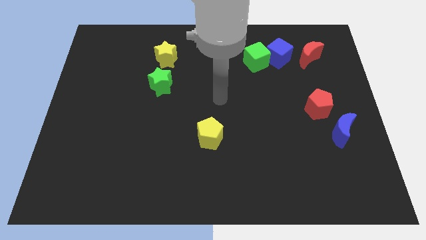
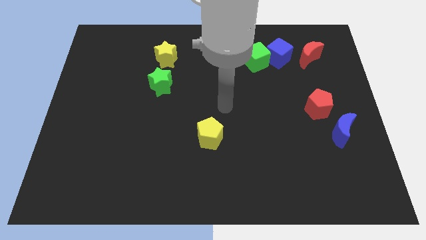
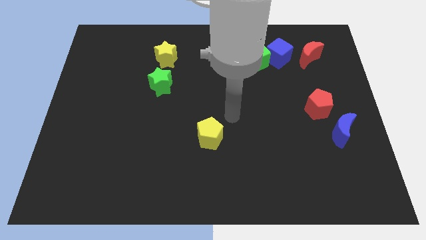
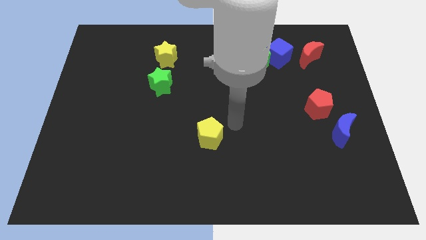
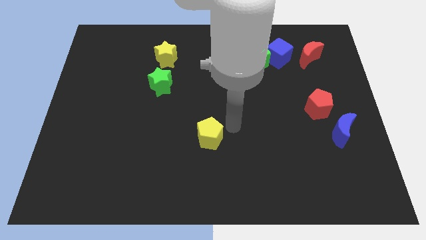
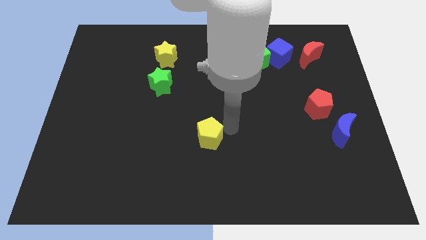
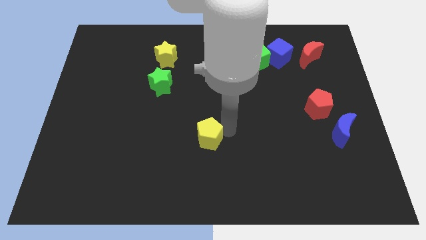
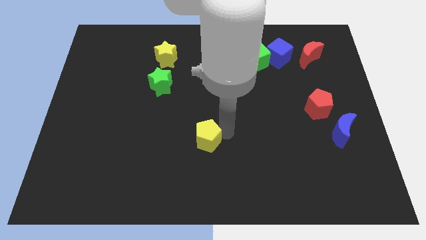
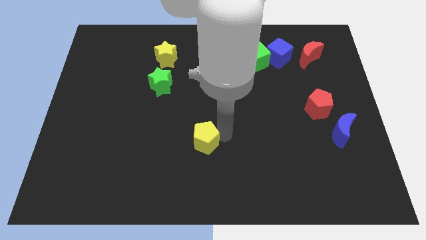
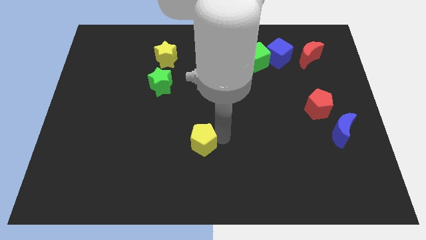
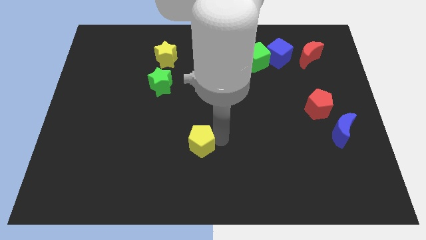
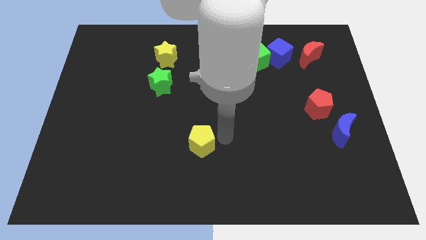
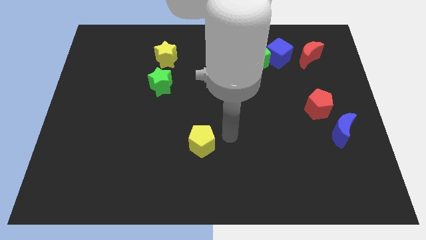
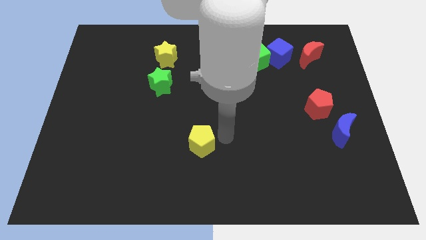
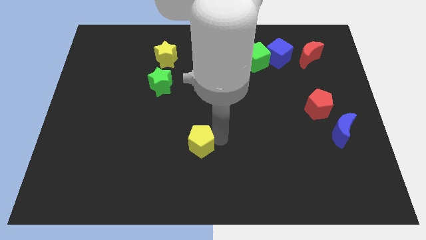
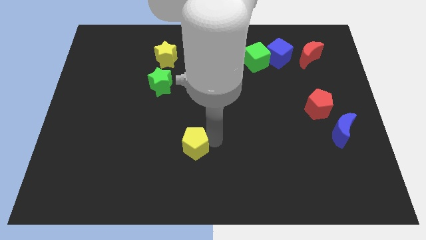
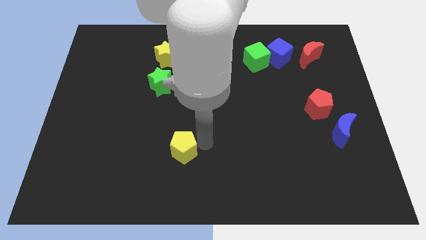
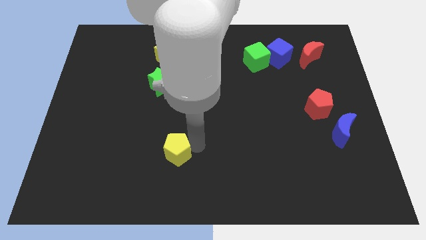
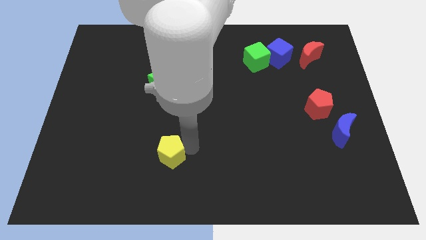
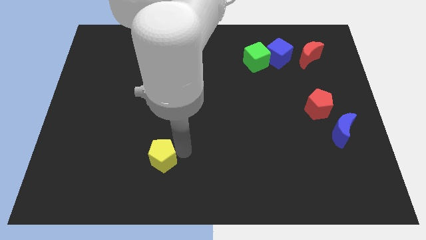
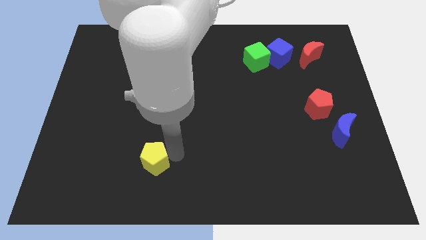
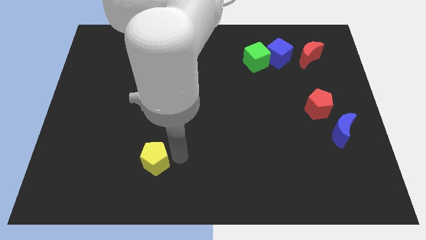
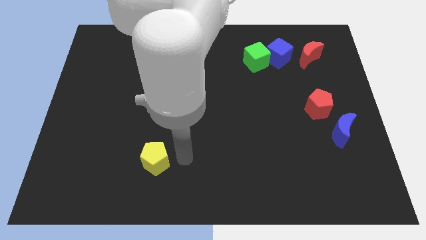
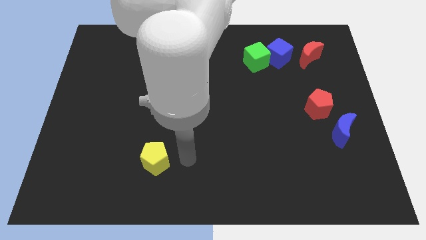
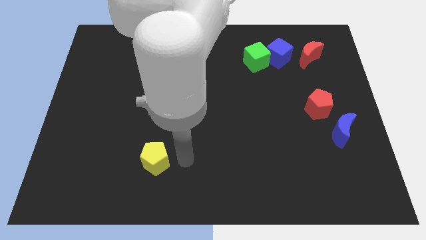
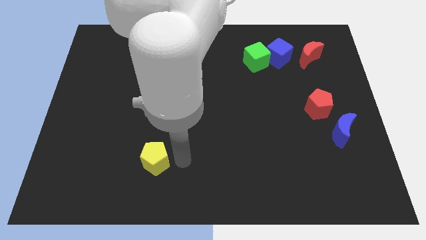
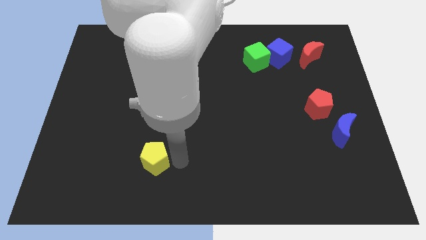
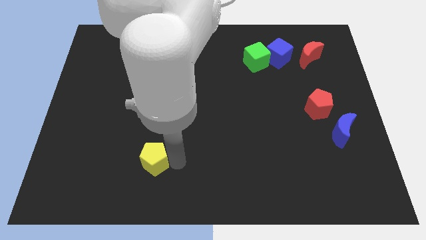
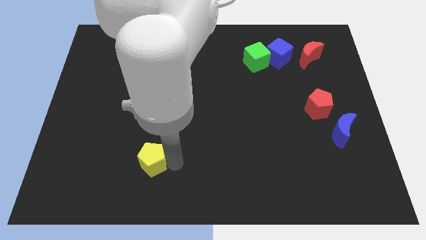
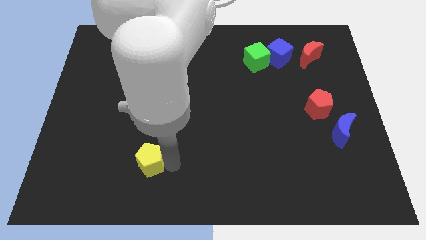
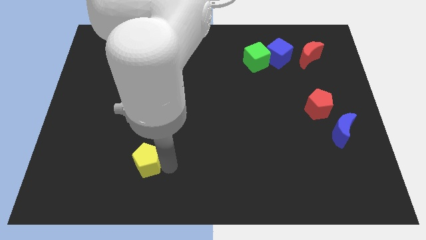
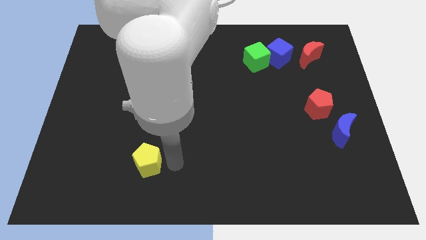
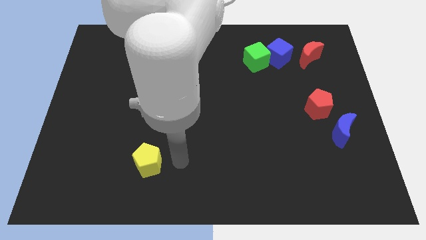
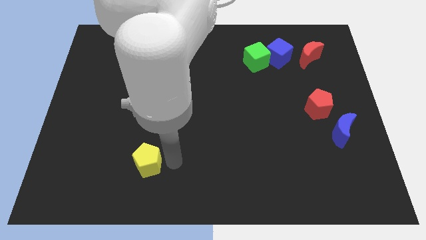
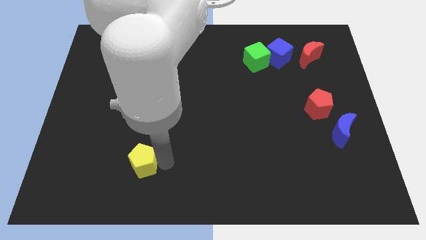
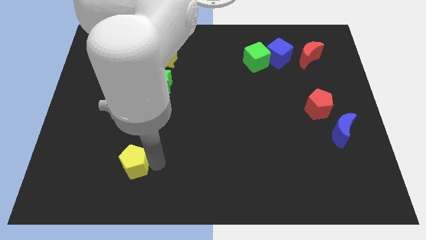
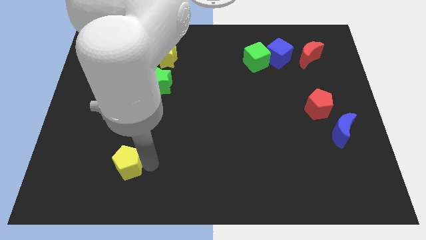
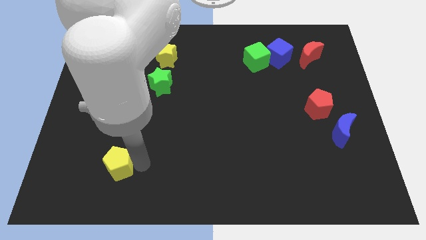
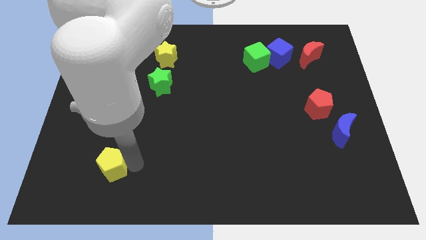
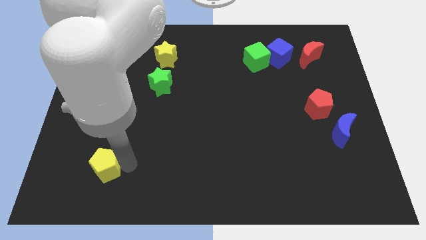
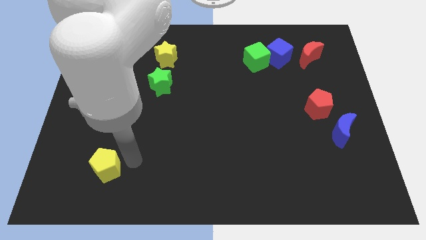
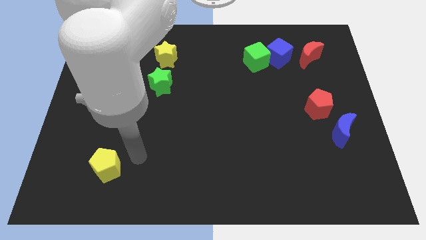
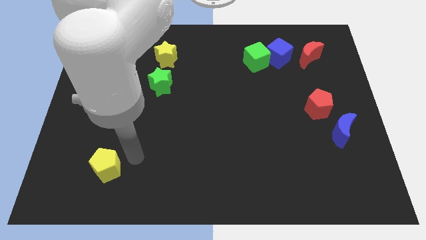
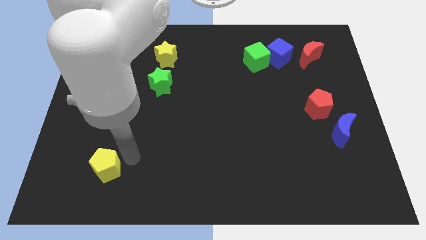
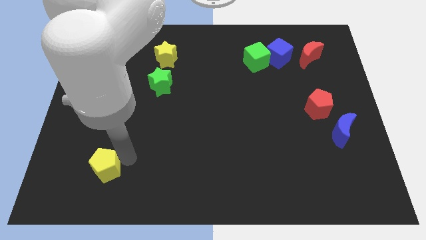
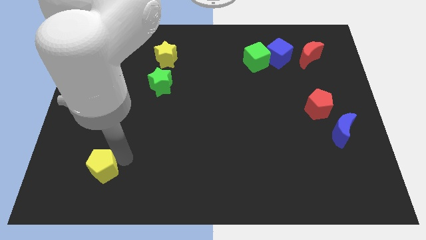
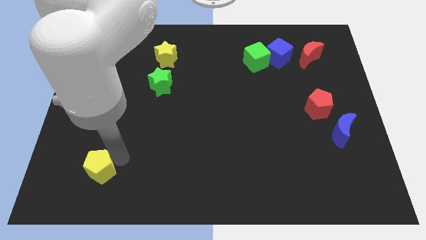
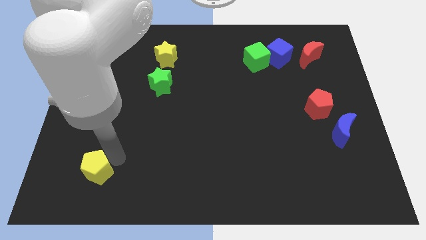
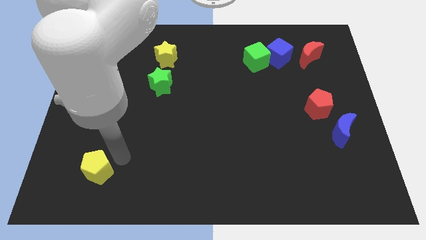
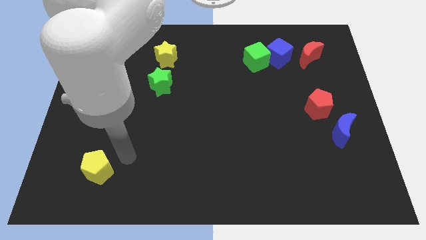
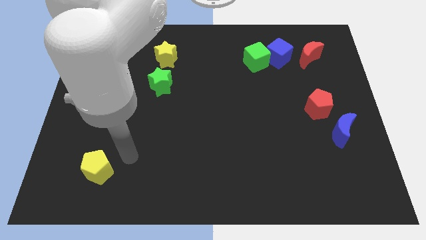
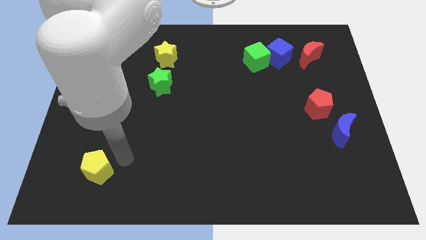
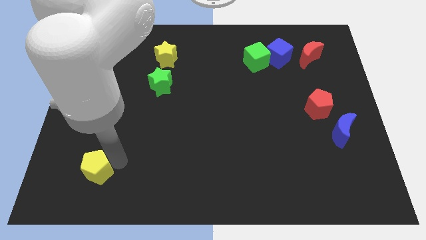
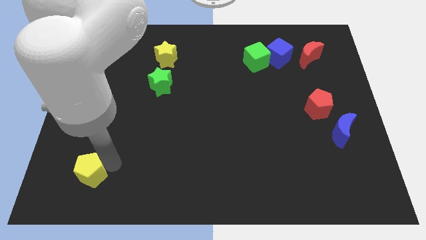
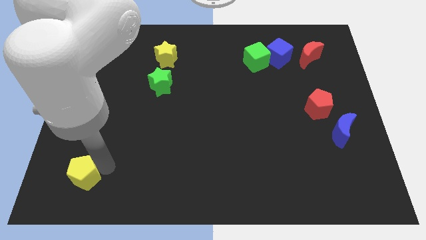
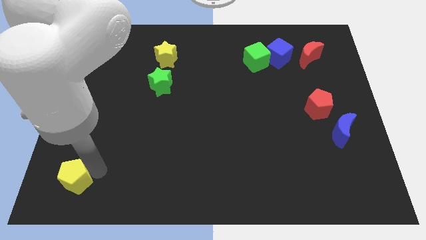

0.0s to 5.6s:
put the yellow pentagon to the bottom left corner
